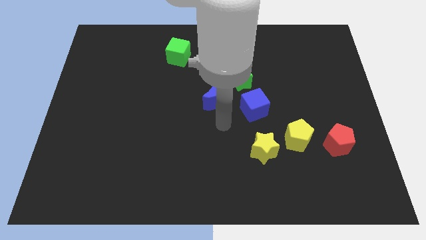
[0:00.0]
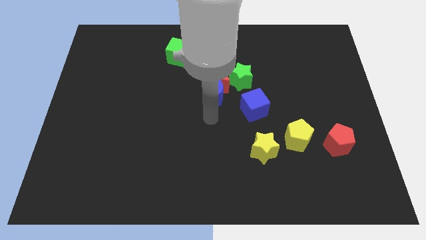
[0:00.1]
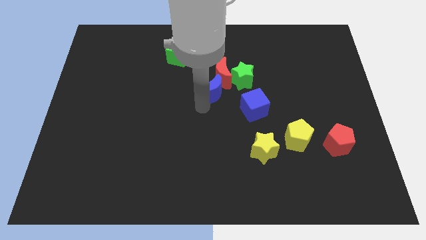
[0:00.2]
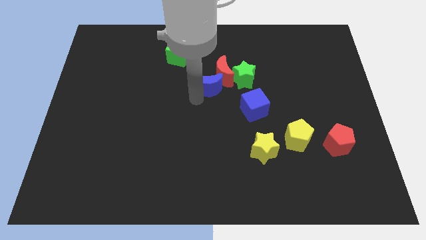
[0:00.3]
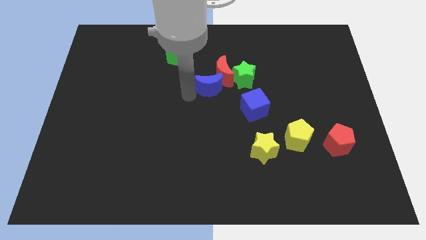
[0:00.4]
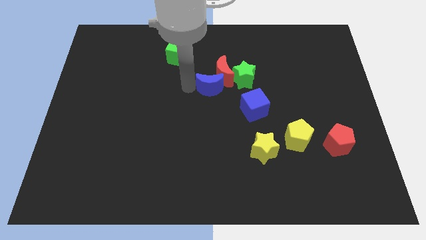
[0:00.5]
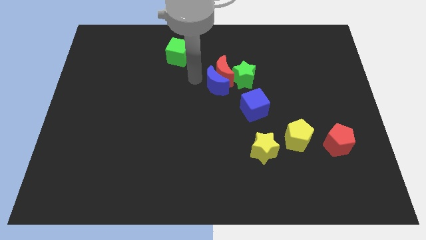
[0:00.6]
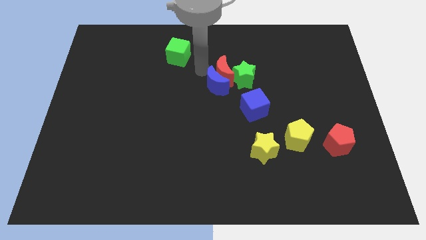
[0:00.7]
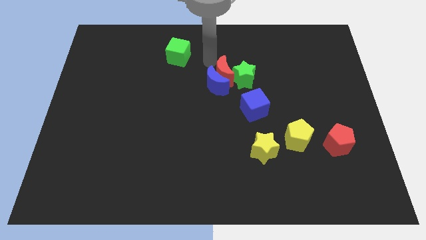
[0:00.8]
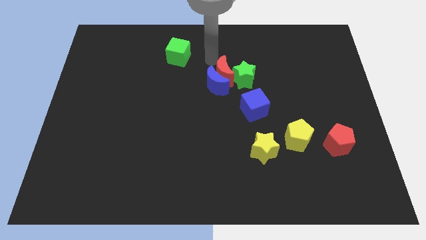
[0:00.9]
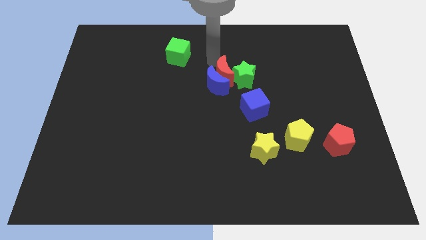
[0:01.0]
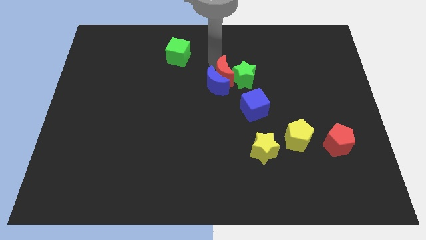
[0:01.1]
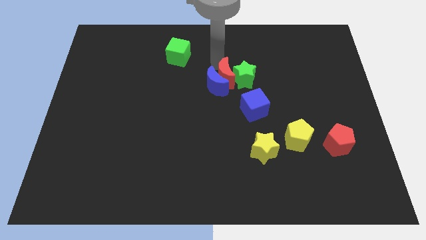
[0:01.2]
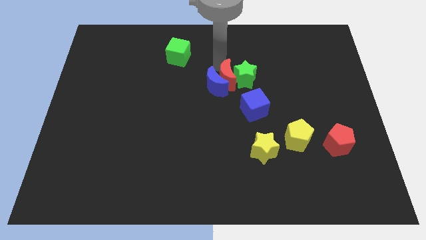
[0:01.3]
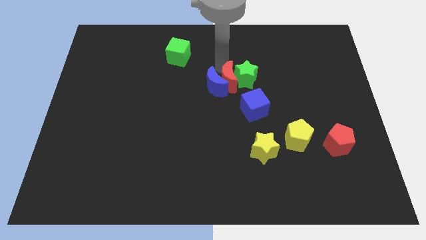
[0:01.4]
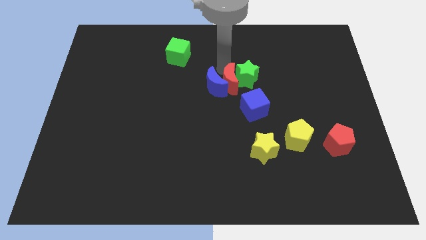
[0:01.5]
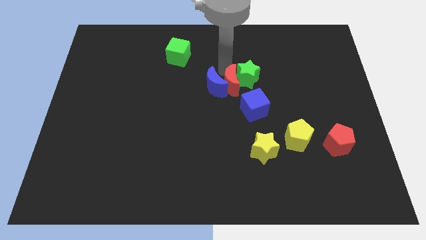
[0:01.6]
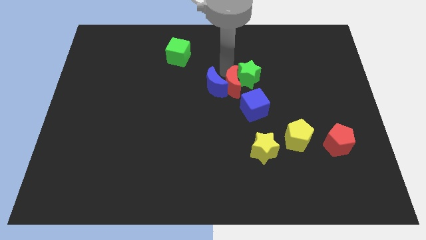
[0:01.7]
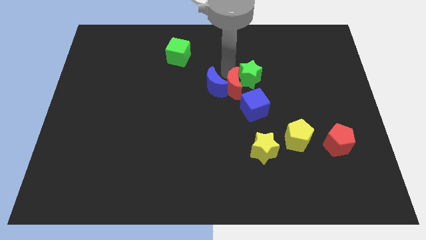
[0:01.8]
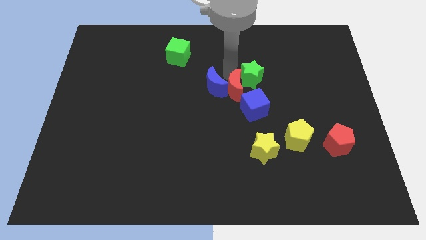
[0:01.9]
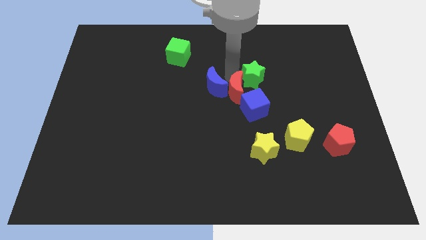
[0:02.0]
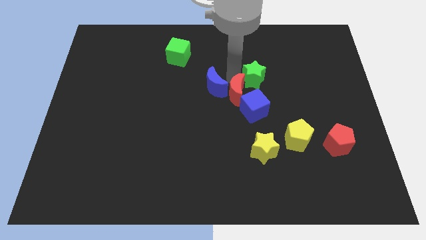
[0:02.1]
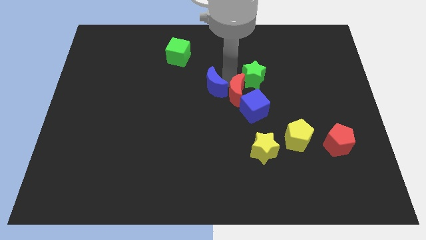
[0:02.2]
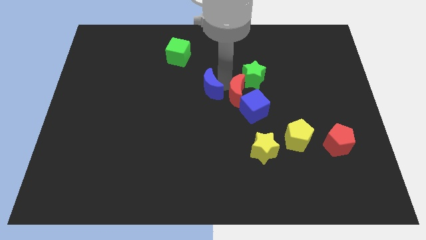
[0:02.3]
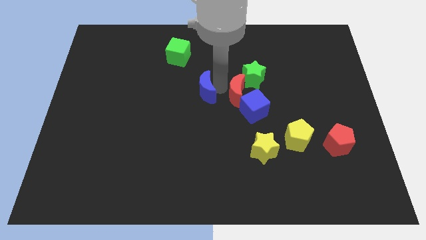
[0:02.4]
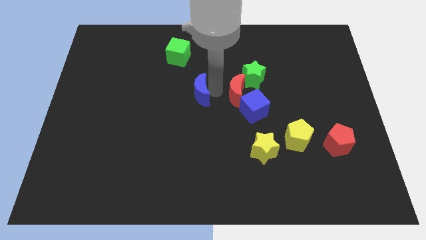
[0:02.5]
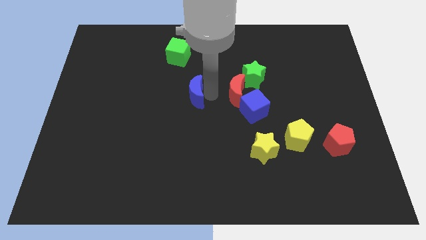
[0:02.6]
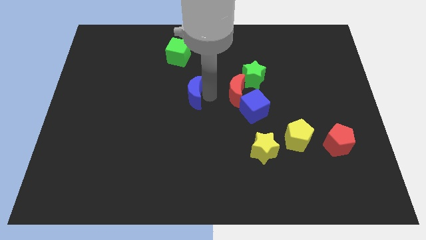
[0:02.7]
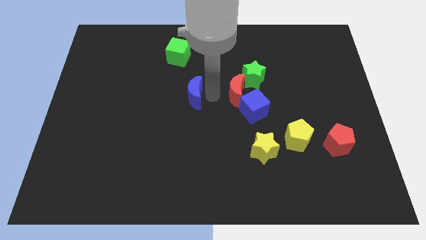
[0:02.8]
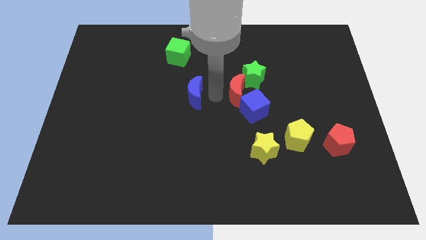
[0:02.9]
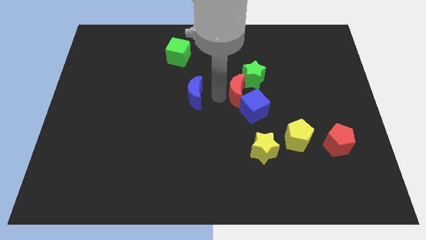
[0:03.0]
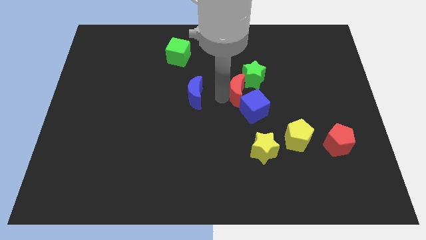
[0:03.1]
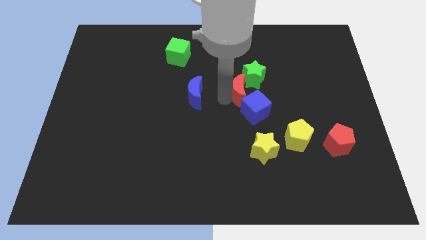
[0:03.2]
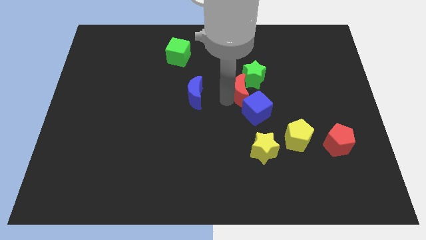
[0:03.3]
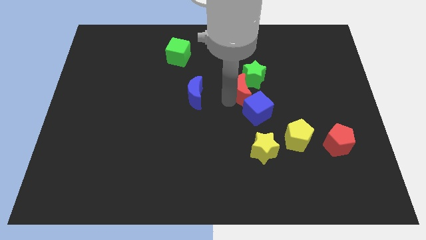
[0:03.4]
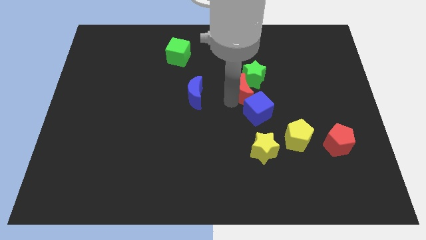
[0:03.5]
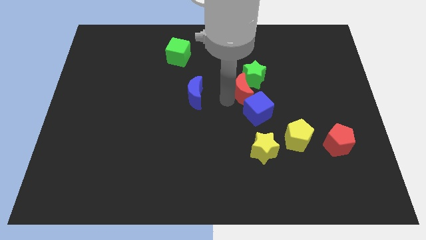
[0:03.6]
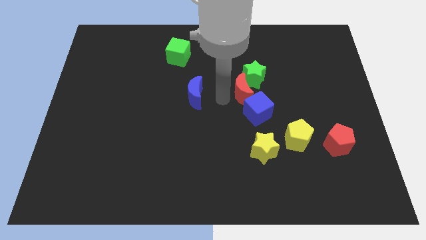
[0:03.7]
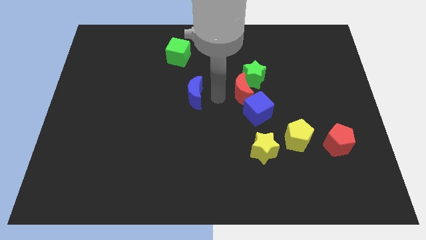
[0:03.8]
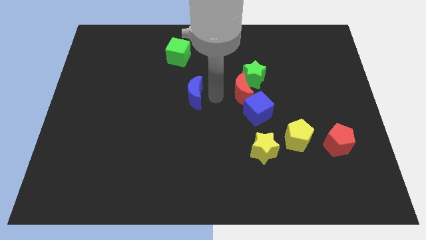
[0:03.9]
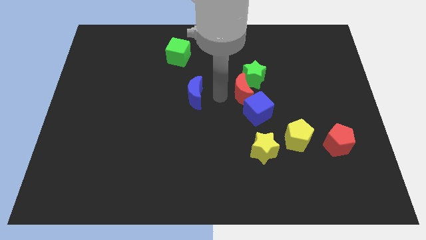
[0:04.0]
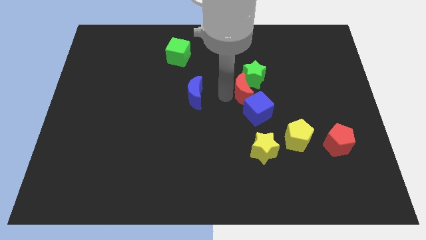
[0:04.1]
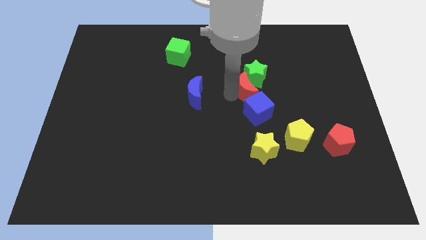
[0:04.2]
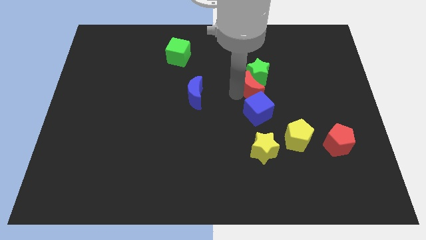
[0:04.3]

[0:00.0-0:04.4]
move the red moon slightly right

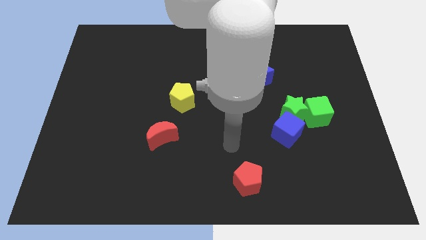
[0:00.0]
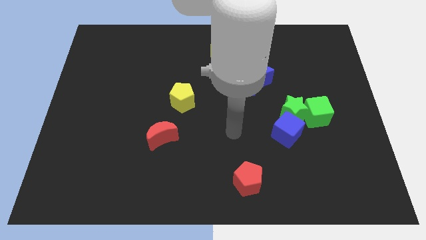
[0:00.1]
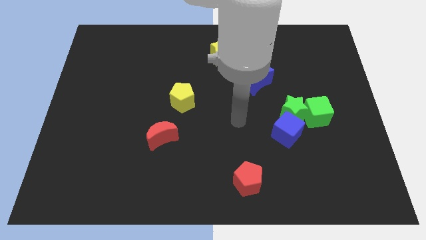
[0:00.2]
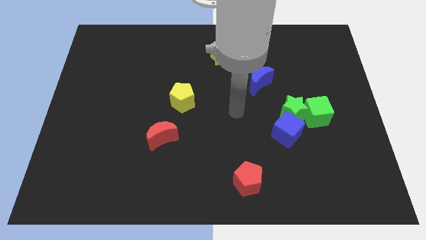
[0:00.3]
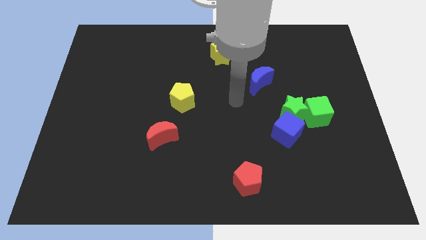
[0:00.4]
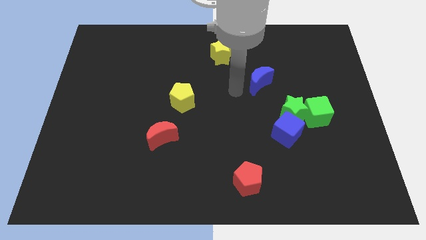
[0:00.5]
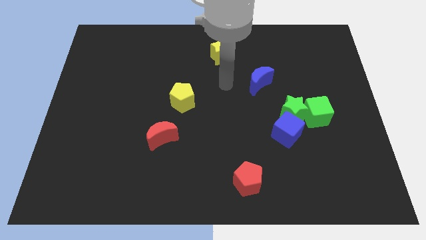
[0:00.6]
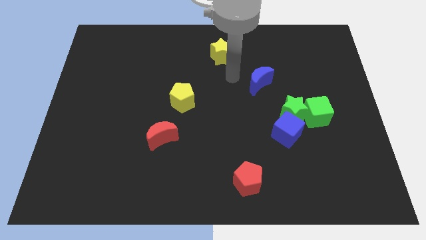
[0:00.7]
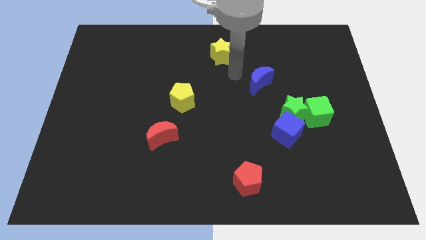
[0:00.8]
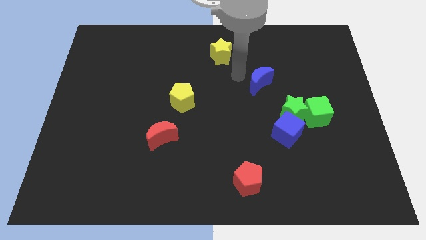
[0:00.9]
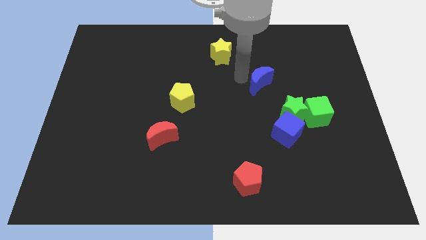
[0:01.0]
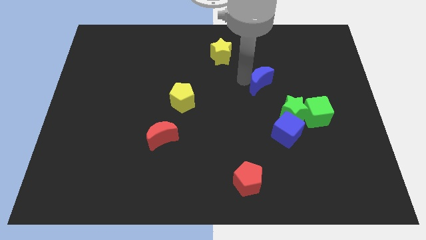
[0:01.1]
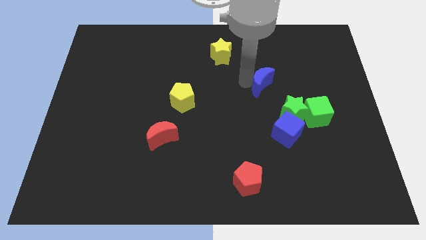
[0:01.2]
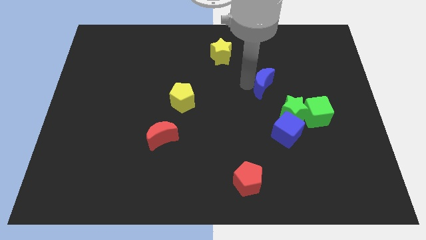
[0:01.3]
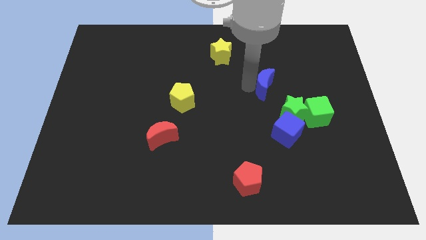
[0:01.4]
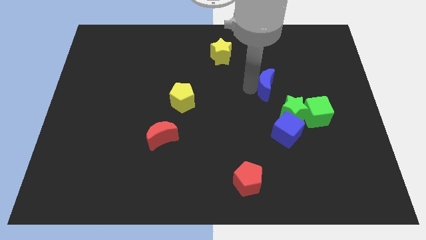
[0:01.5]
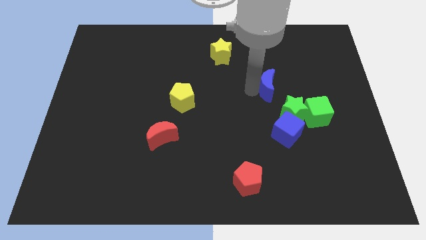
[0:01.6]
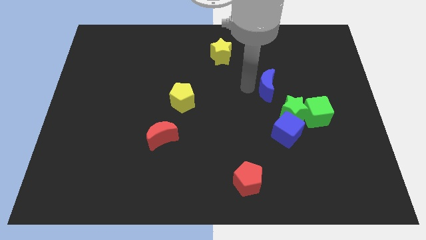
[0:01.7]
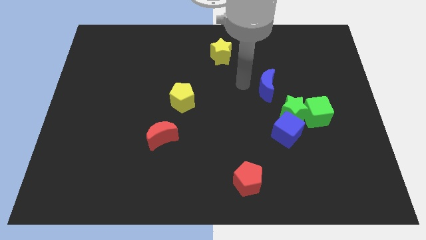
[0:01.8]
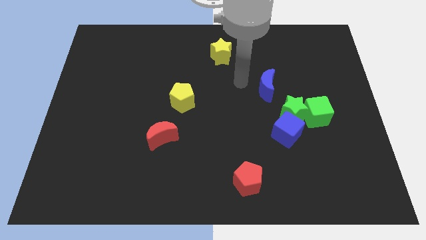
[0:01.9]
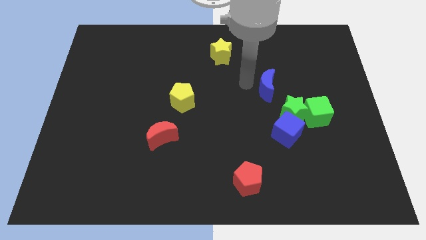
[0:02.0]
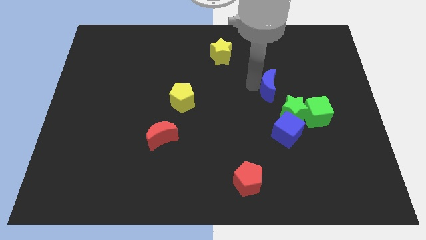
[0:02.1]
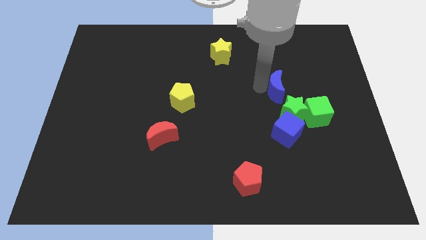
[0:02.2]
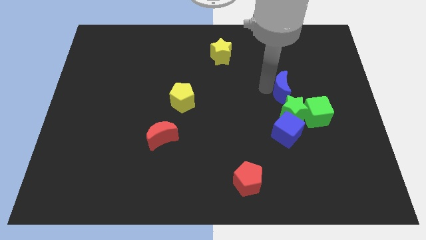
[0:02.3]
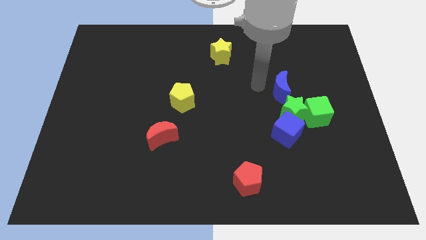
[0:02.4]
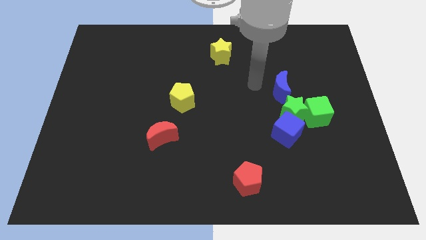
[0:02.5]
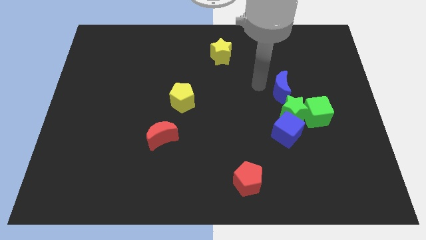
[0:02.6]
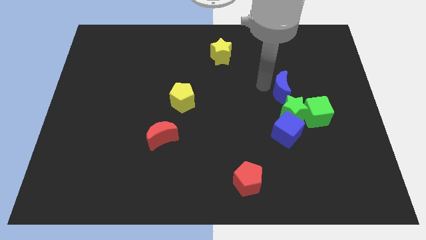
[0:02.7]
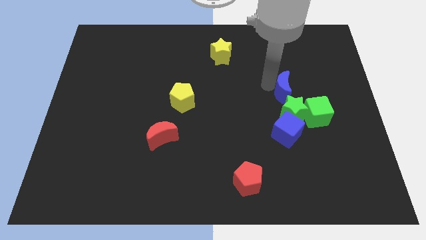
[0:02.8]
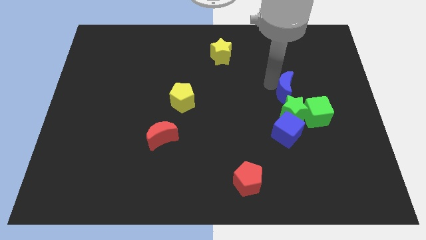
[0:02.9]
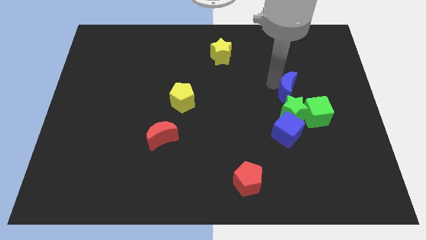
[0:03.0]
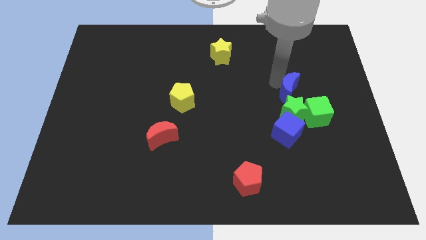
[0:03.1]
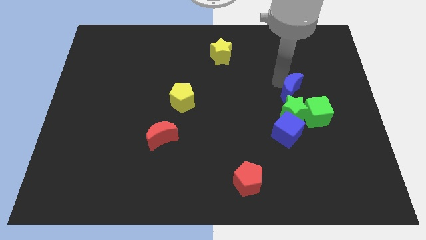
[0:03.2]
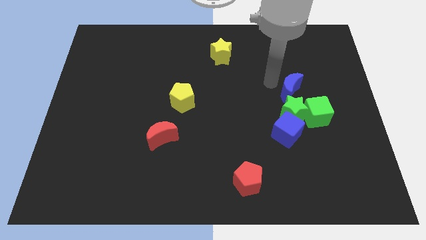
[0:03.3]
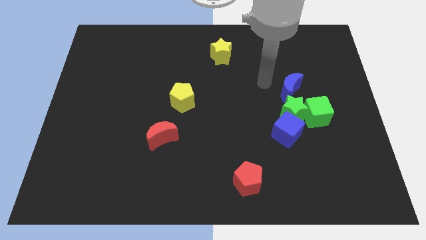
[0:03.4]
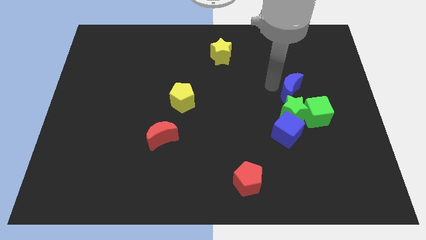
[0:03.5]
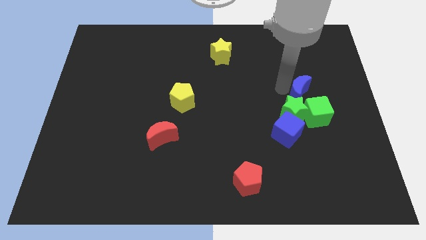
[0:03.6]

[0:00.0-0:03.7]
move the blue moon a bit down and right

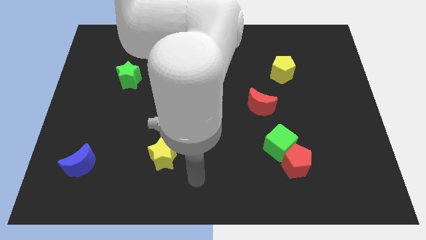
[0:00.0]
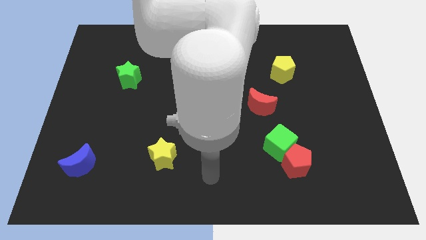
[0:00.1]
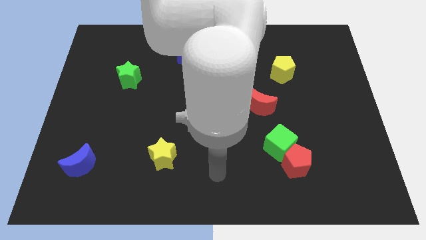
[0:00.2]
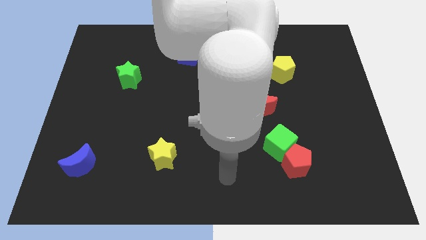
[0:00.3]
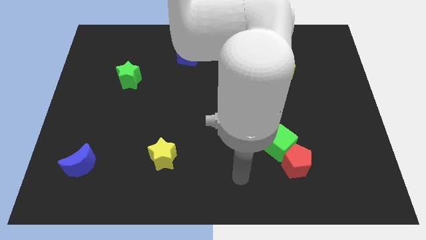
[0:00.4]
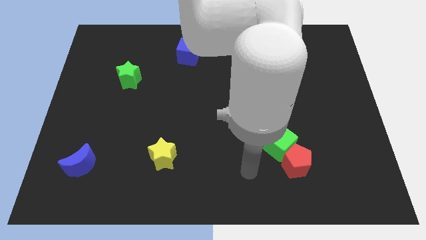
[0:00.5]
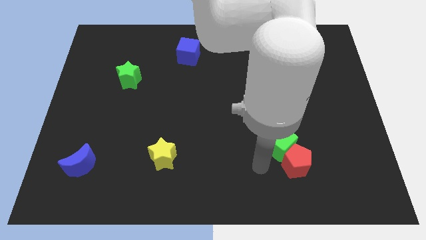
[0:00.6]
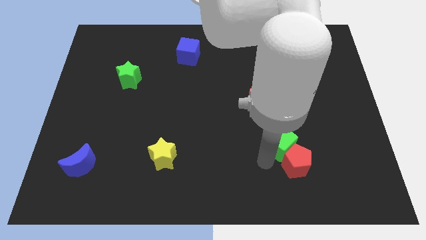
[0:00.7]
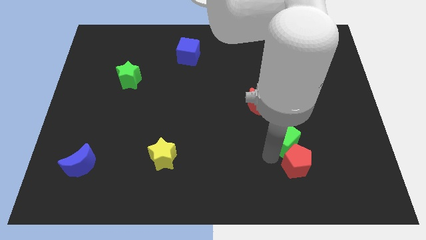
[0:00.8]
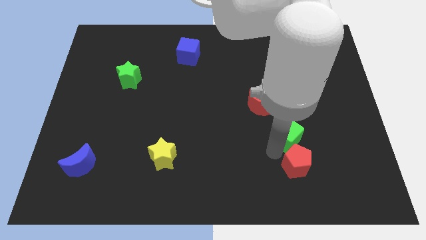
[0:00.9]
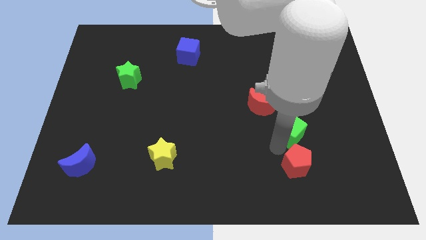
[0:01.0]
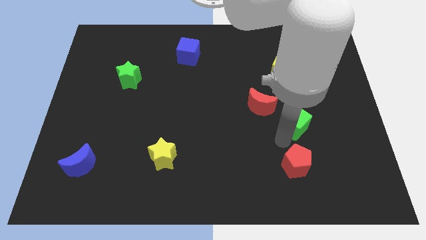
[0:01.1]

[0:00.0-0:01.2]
slightly move the green cube diagonally up and right
